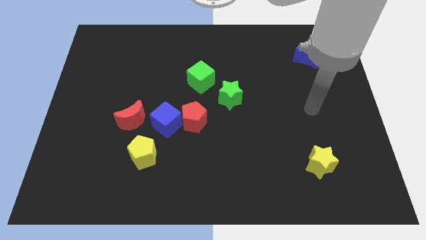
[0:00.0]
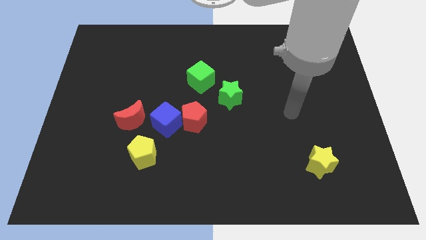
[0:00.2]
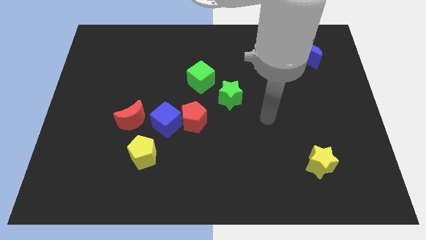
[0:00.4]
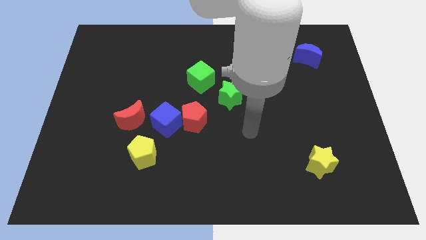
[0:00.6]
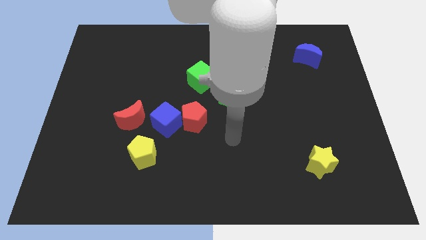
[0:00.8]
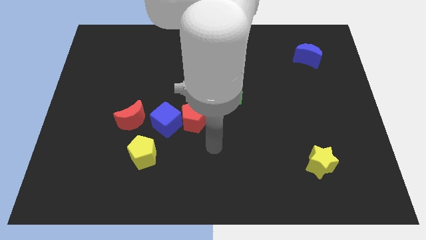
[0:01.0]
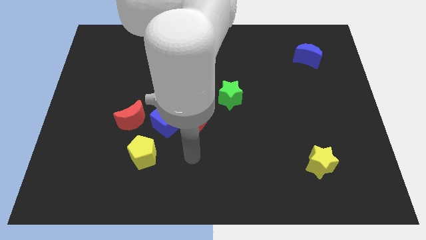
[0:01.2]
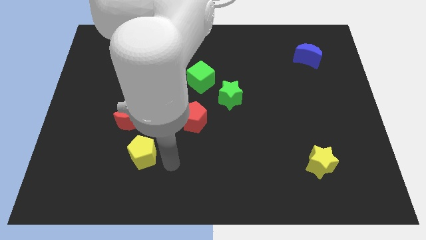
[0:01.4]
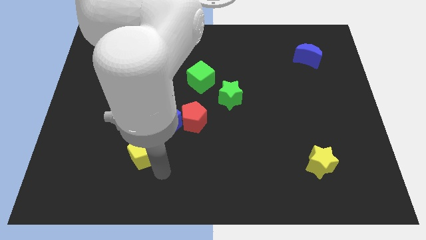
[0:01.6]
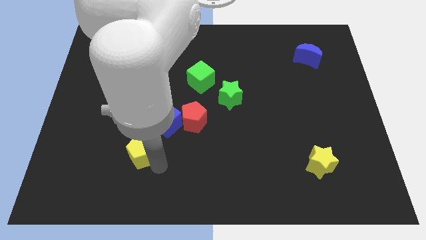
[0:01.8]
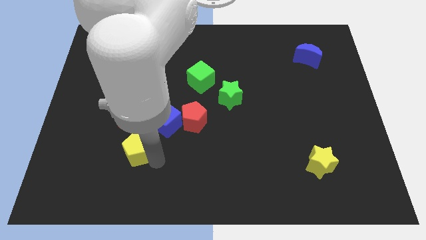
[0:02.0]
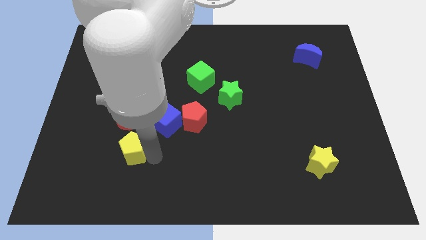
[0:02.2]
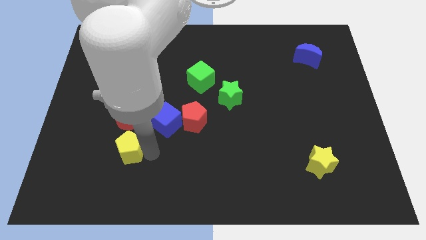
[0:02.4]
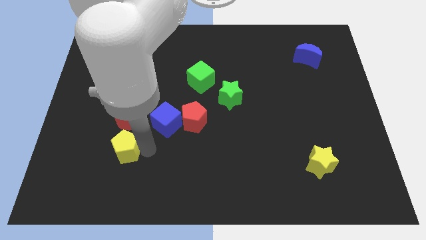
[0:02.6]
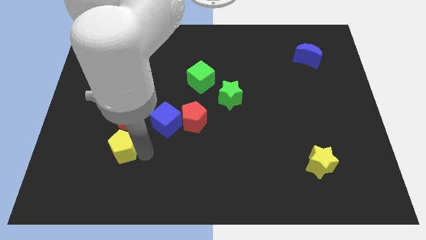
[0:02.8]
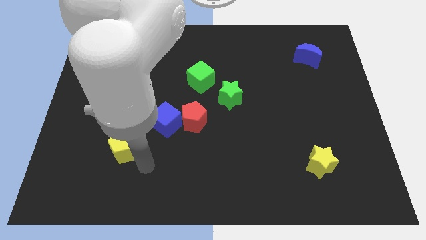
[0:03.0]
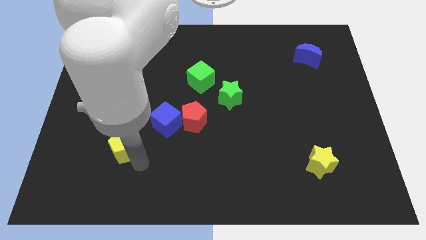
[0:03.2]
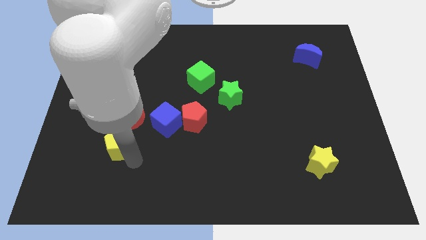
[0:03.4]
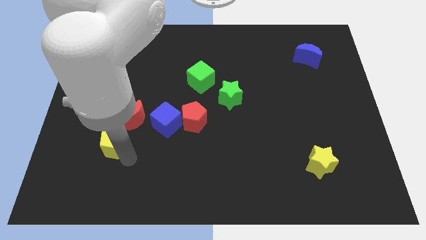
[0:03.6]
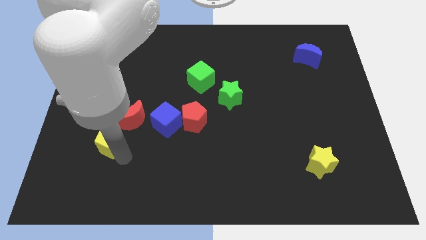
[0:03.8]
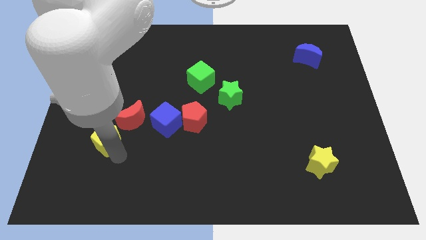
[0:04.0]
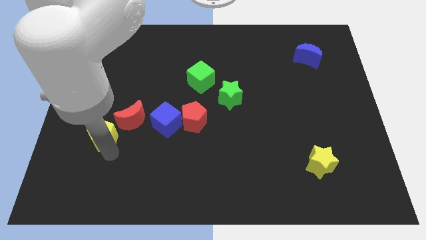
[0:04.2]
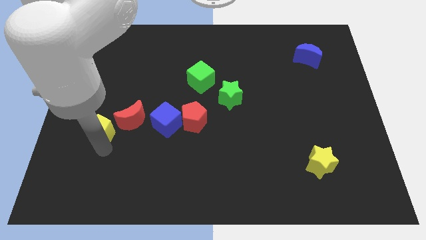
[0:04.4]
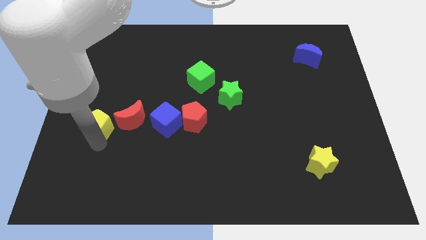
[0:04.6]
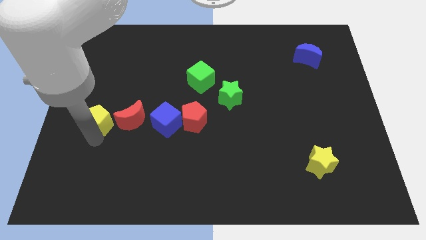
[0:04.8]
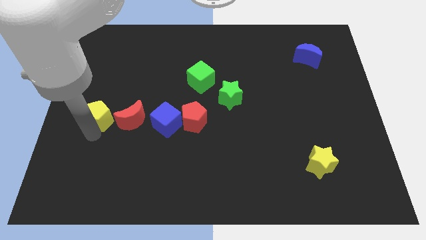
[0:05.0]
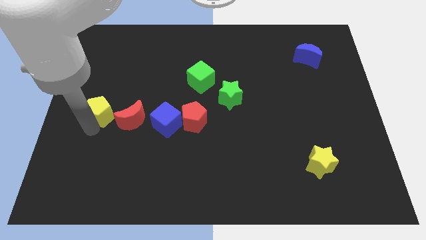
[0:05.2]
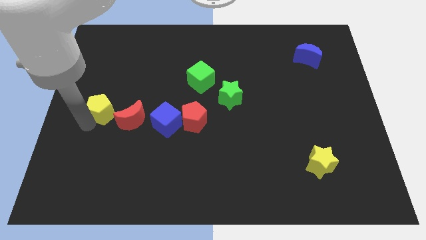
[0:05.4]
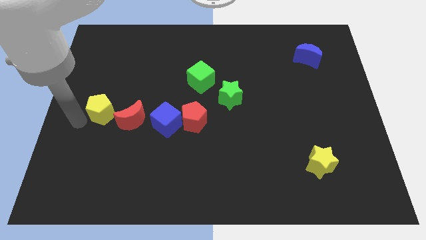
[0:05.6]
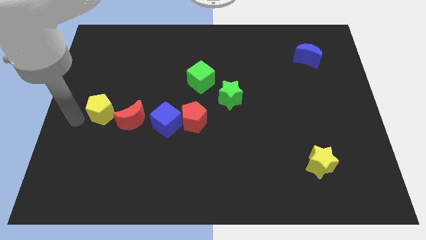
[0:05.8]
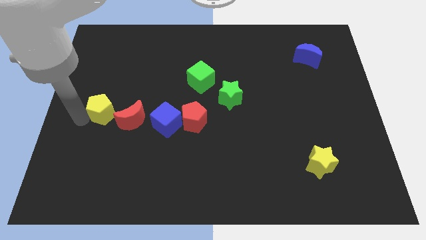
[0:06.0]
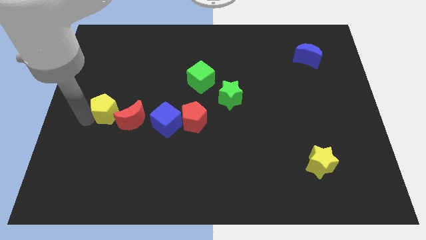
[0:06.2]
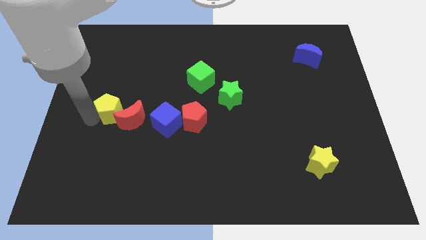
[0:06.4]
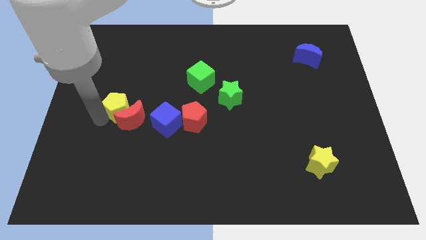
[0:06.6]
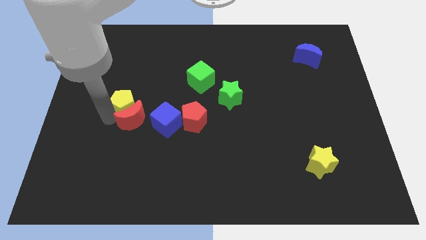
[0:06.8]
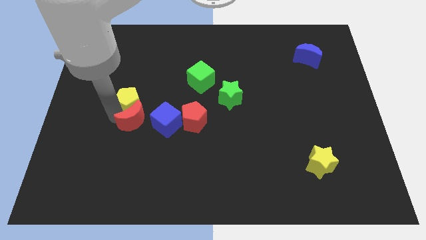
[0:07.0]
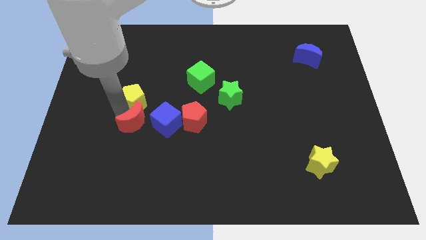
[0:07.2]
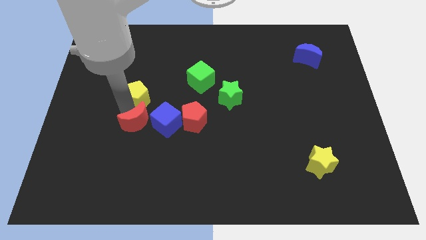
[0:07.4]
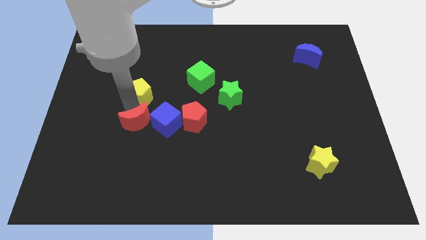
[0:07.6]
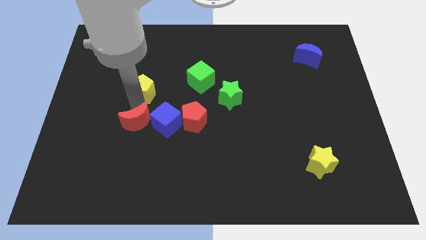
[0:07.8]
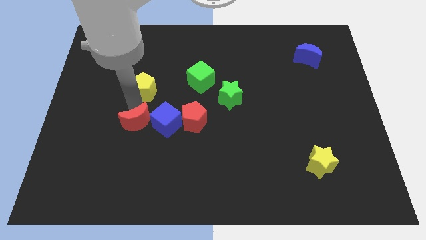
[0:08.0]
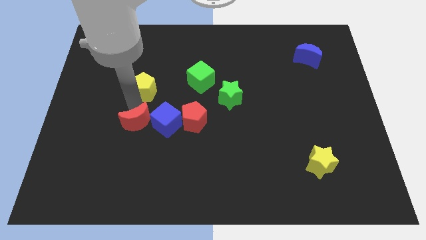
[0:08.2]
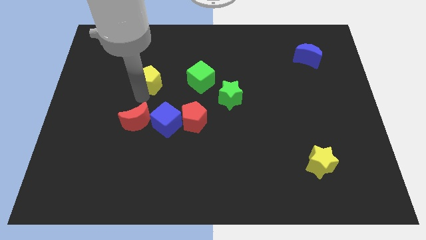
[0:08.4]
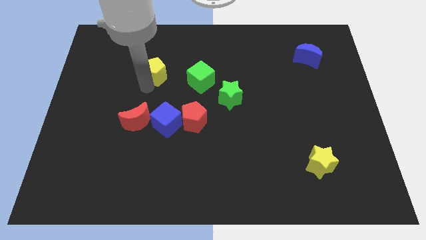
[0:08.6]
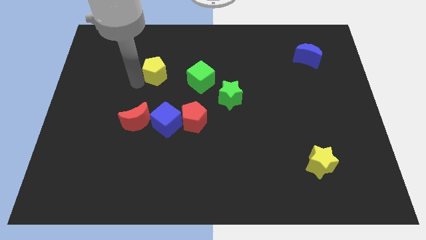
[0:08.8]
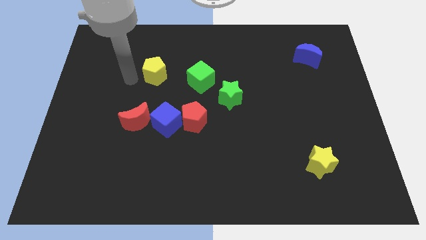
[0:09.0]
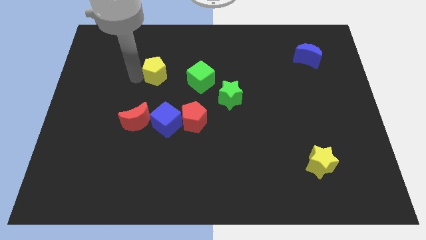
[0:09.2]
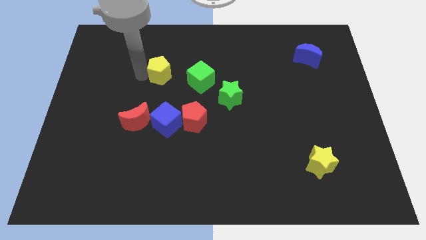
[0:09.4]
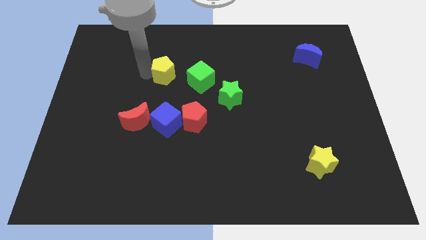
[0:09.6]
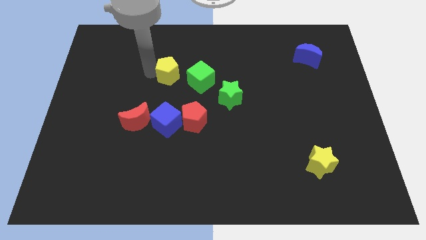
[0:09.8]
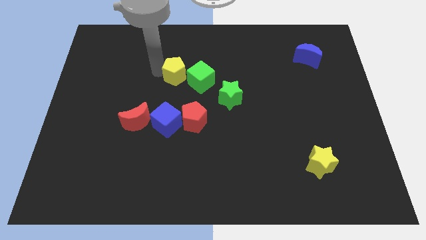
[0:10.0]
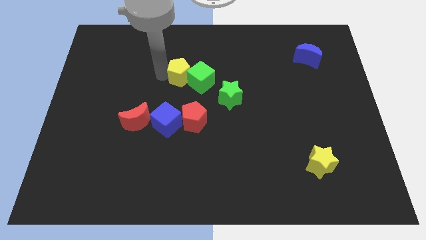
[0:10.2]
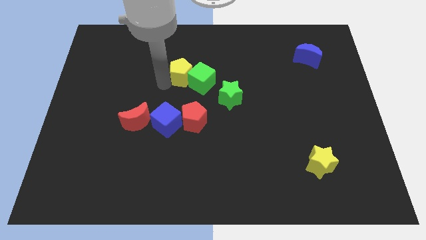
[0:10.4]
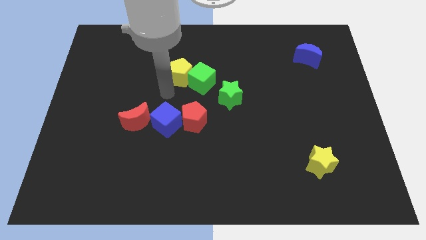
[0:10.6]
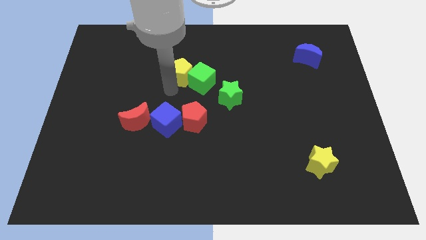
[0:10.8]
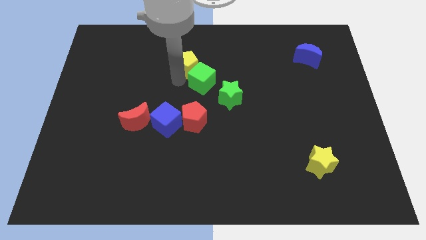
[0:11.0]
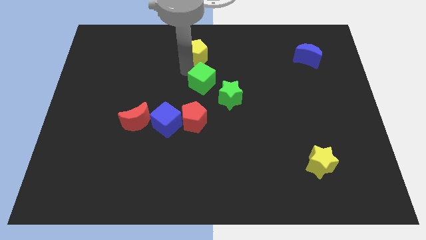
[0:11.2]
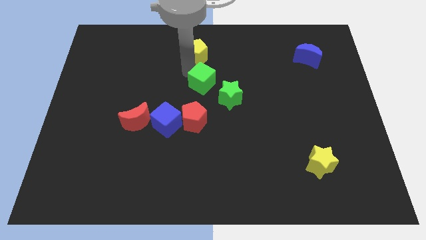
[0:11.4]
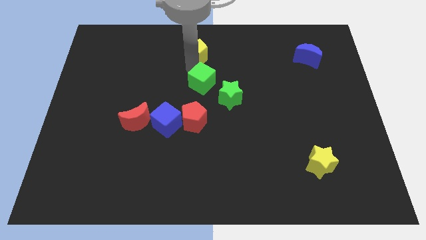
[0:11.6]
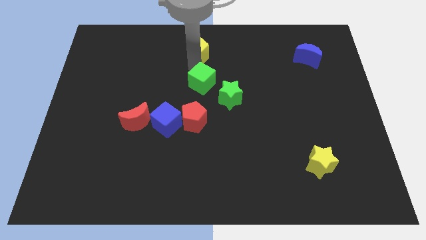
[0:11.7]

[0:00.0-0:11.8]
put the yellow pentagon to the top side

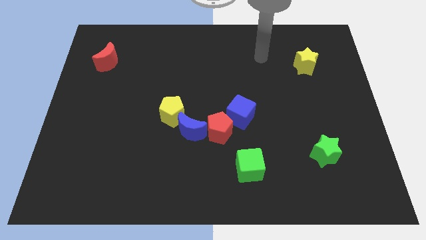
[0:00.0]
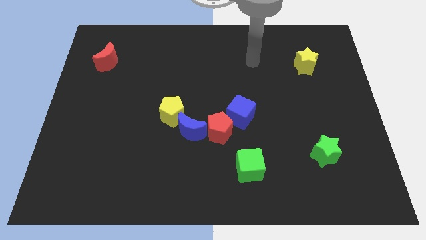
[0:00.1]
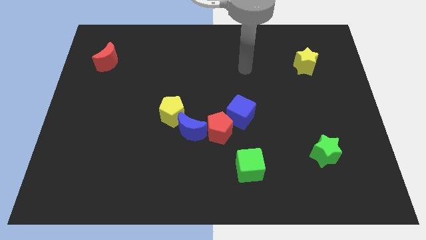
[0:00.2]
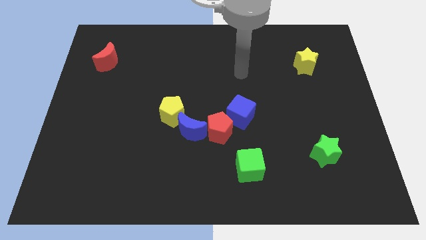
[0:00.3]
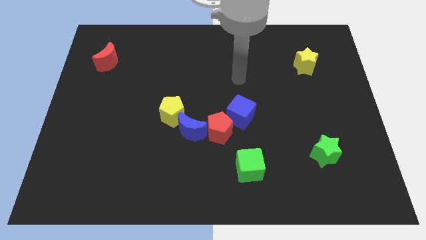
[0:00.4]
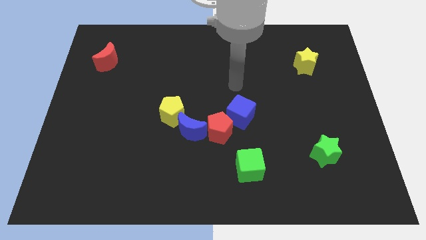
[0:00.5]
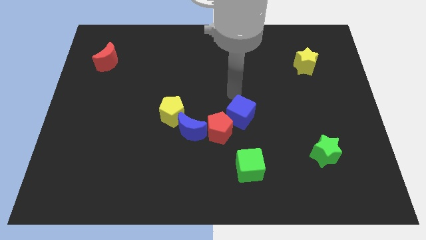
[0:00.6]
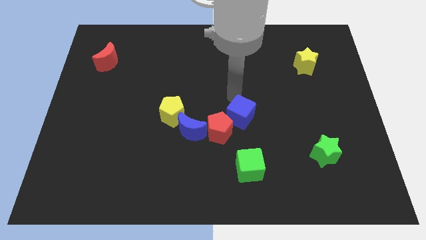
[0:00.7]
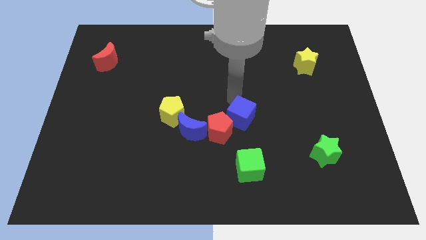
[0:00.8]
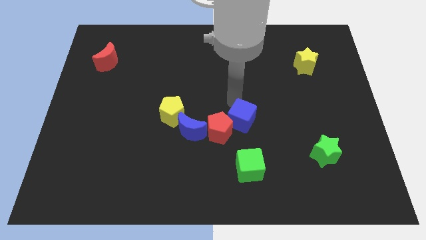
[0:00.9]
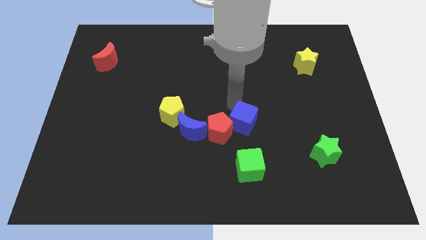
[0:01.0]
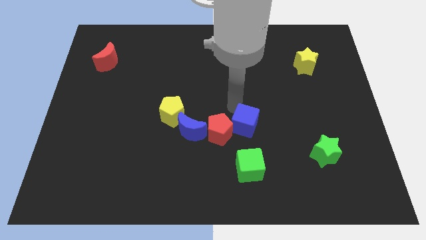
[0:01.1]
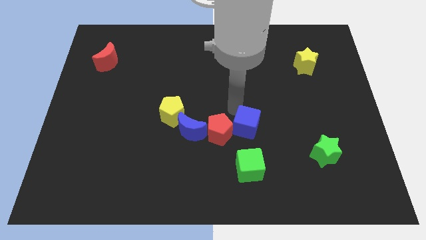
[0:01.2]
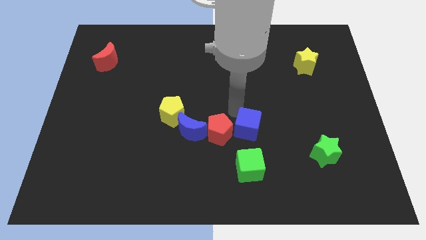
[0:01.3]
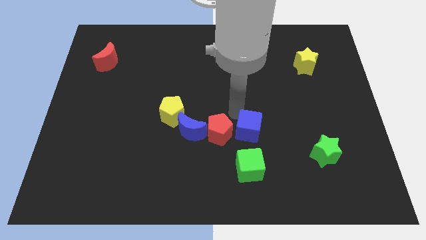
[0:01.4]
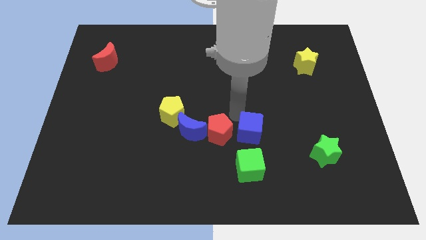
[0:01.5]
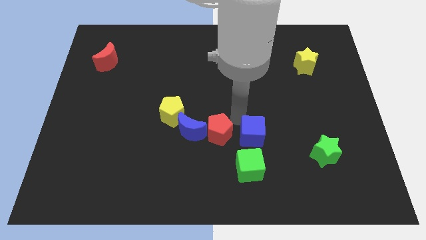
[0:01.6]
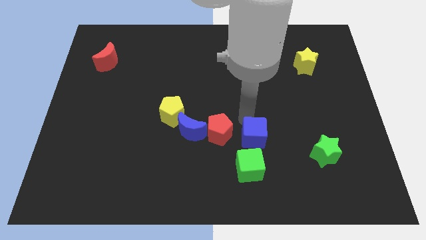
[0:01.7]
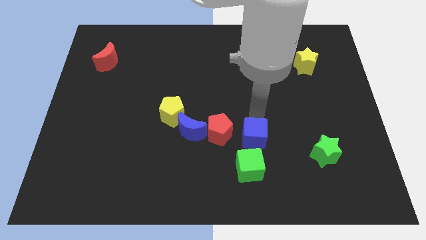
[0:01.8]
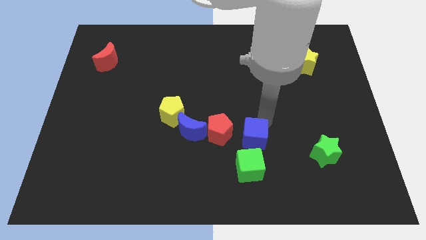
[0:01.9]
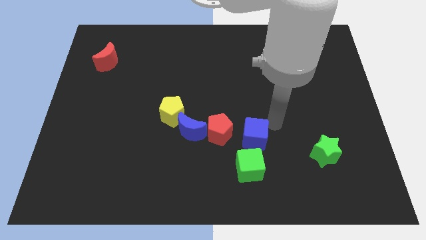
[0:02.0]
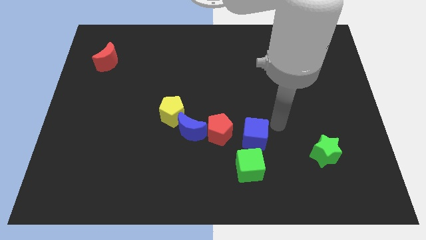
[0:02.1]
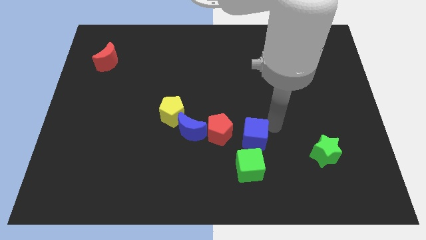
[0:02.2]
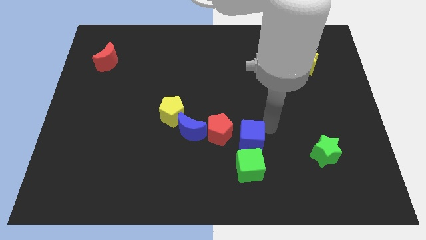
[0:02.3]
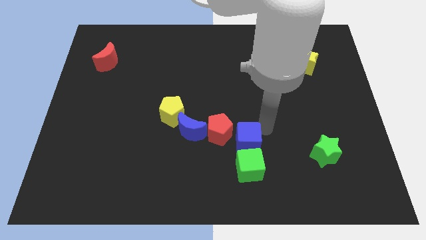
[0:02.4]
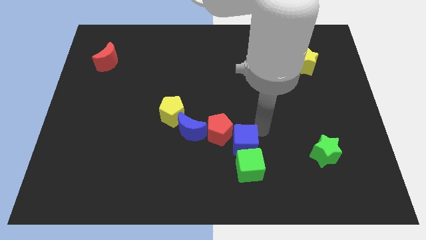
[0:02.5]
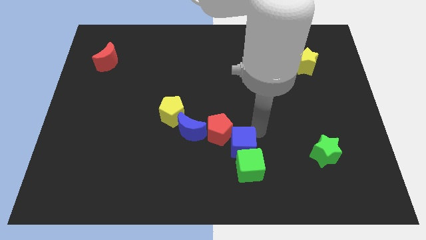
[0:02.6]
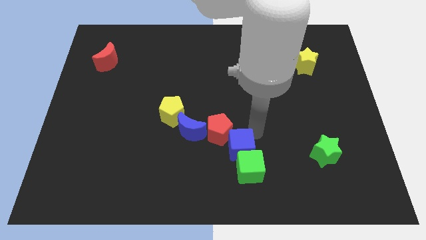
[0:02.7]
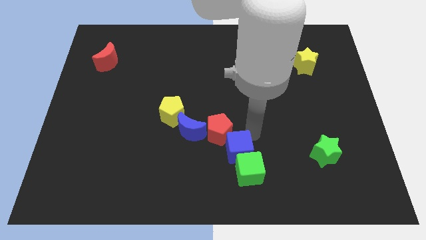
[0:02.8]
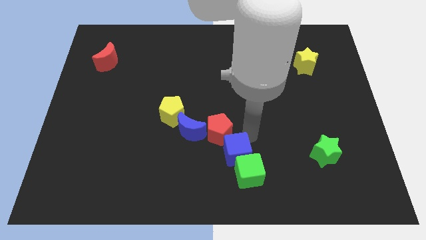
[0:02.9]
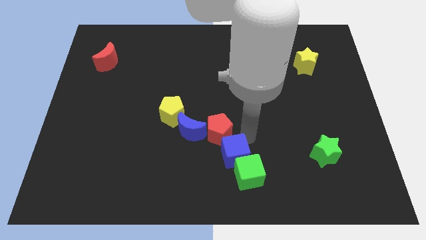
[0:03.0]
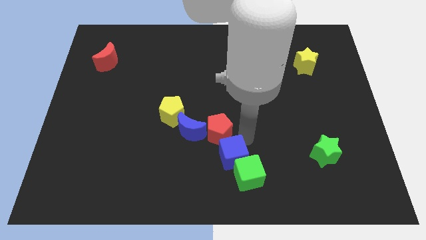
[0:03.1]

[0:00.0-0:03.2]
slide the blue cube to the bottom
